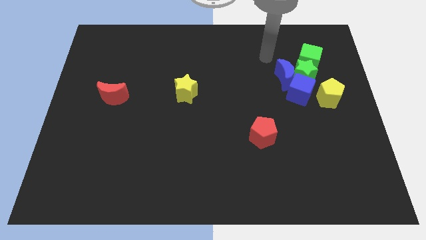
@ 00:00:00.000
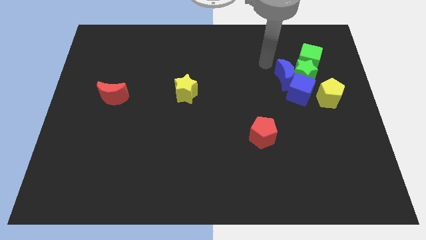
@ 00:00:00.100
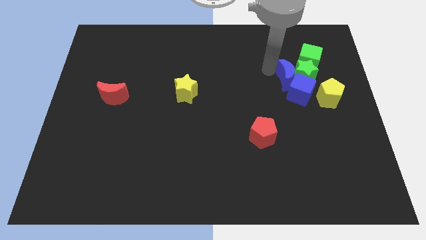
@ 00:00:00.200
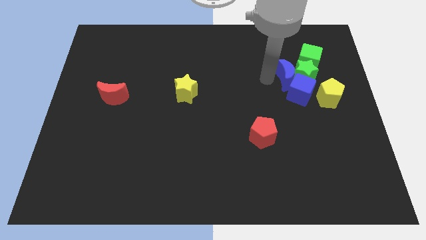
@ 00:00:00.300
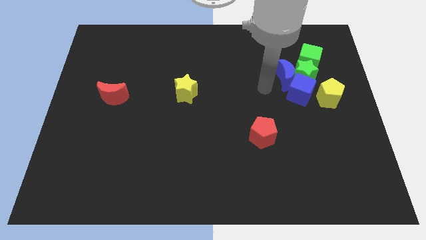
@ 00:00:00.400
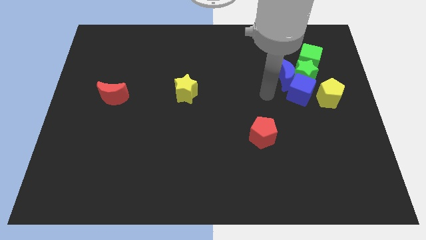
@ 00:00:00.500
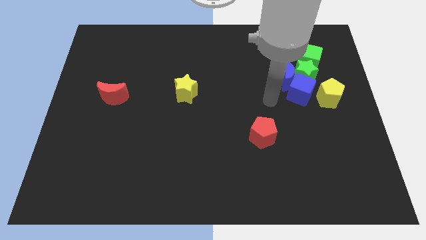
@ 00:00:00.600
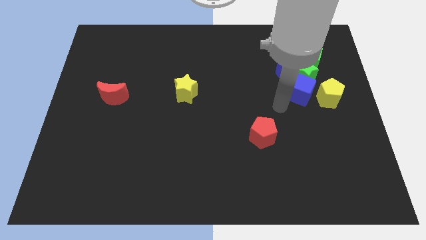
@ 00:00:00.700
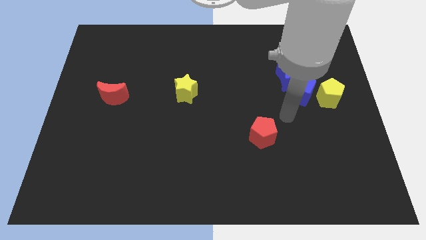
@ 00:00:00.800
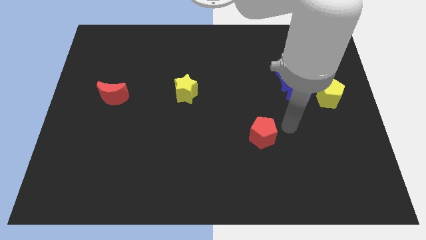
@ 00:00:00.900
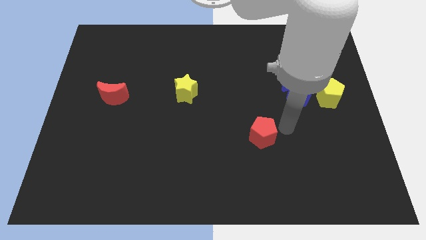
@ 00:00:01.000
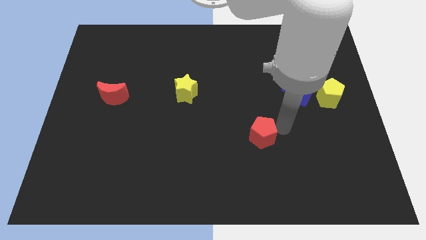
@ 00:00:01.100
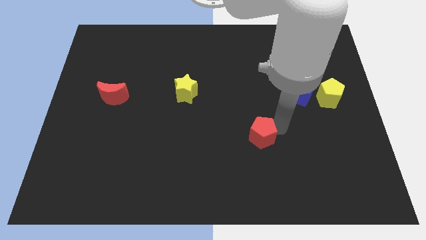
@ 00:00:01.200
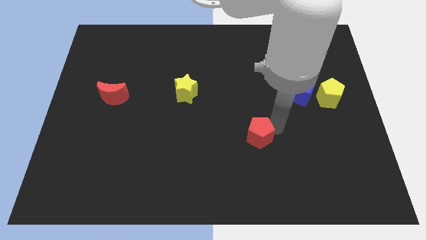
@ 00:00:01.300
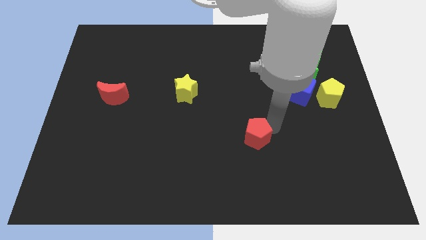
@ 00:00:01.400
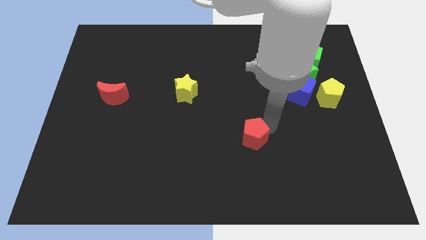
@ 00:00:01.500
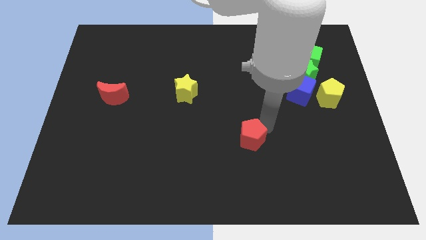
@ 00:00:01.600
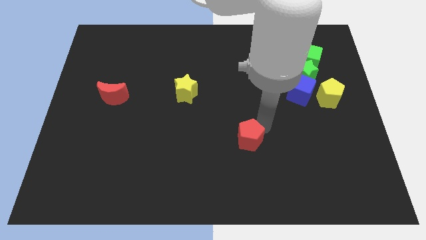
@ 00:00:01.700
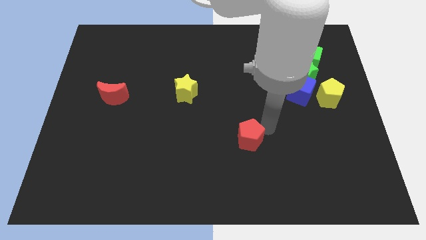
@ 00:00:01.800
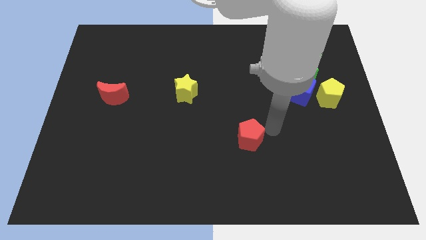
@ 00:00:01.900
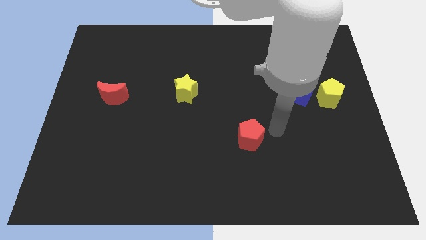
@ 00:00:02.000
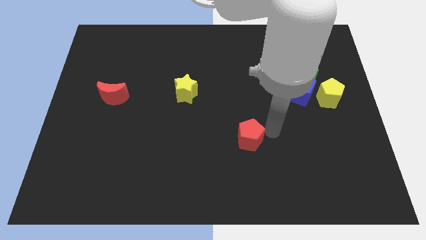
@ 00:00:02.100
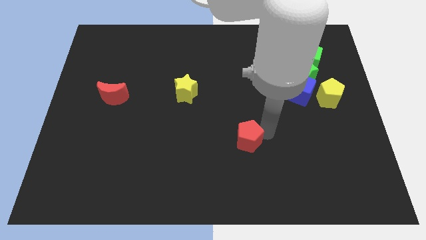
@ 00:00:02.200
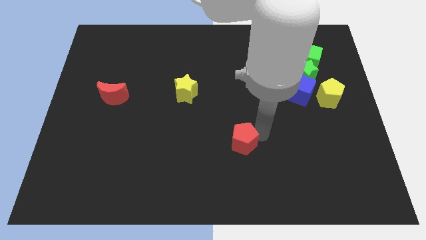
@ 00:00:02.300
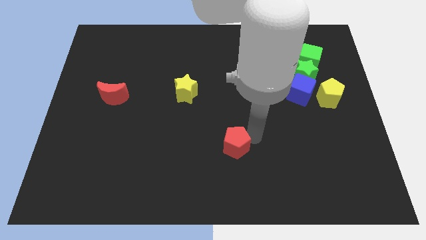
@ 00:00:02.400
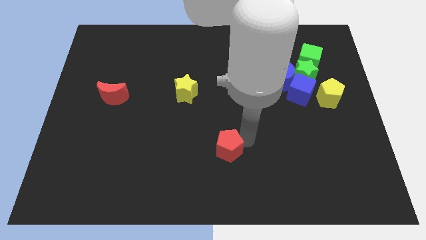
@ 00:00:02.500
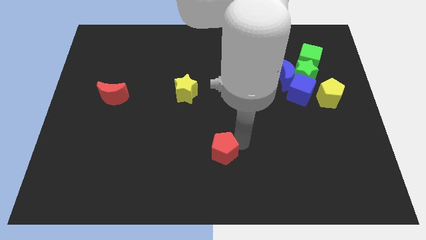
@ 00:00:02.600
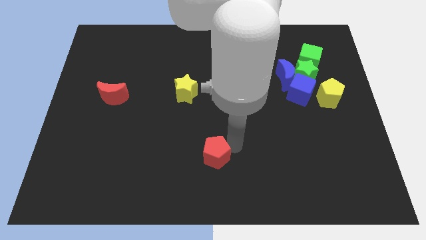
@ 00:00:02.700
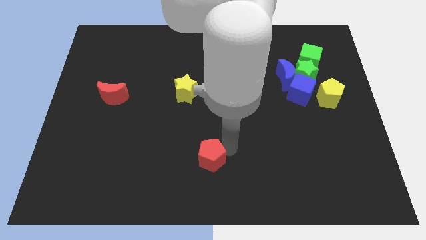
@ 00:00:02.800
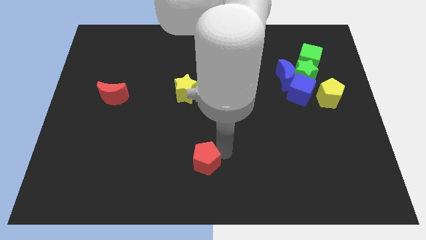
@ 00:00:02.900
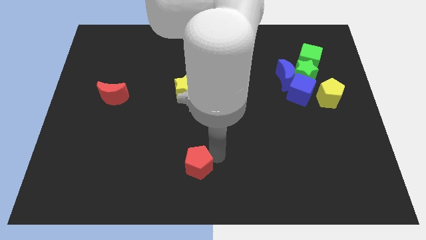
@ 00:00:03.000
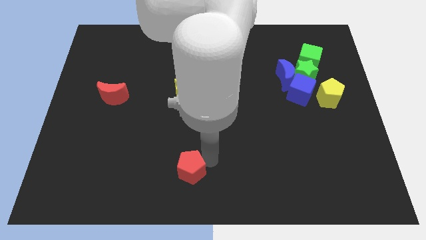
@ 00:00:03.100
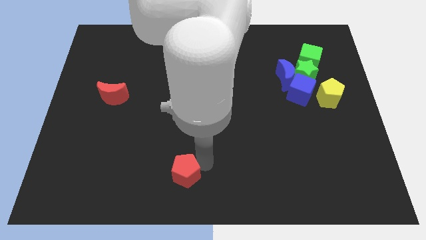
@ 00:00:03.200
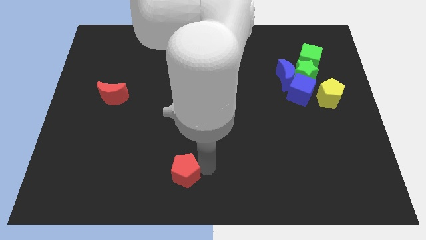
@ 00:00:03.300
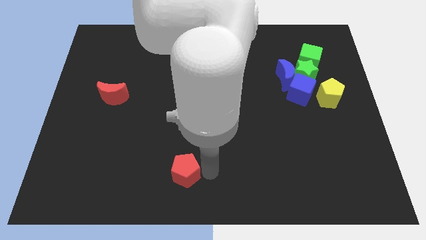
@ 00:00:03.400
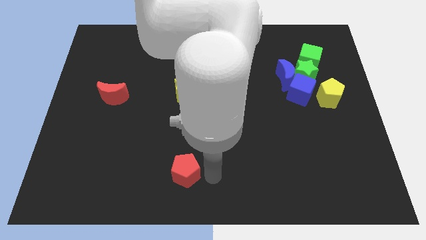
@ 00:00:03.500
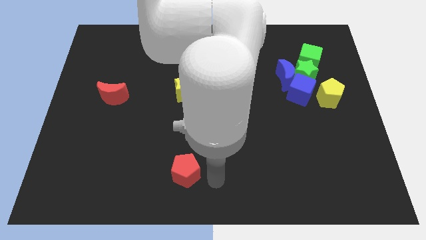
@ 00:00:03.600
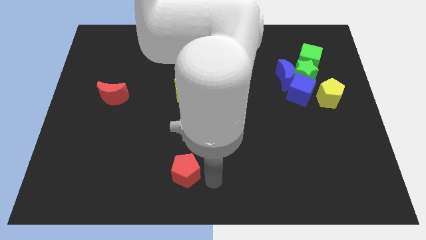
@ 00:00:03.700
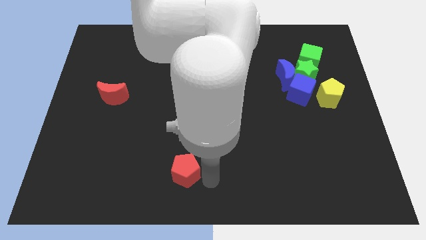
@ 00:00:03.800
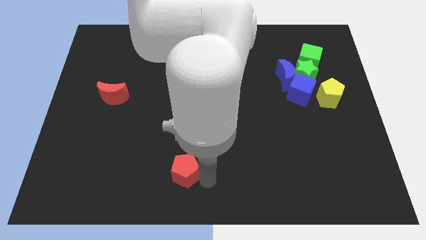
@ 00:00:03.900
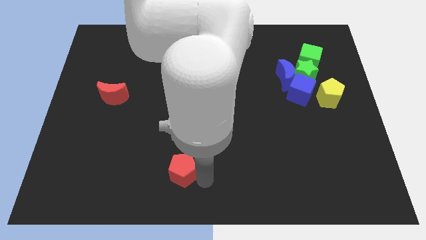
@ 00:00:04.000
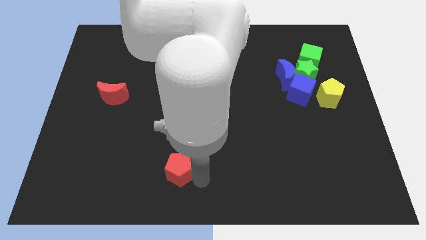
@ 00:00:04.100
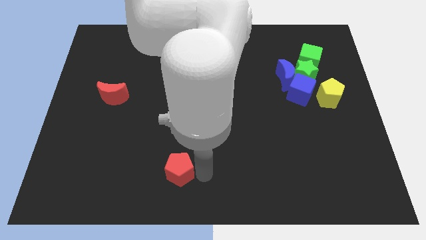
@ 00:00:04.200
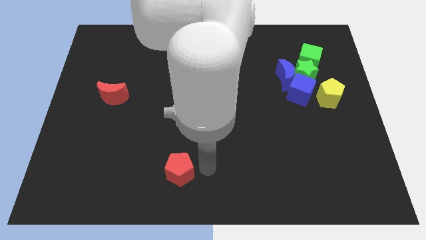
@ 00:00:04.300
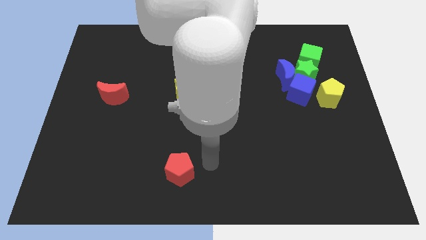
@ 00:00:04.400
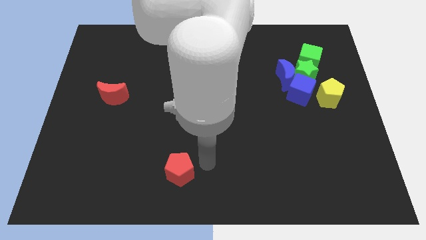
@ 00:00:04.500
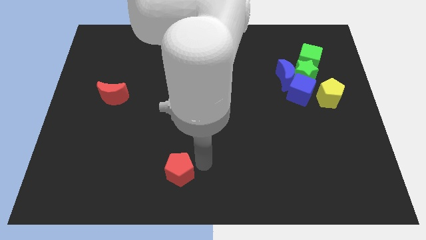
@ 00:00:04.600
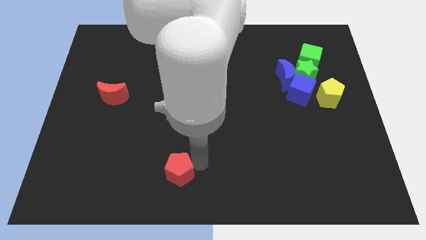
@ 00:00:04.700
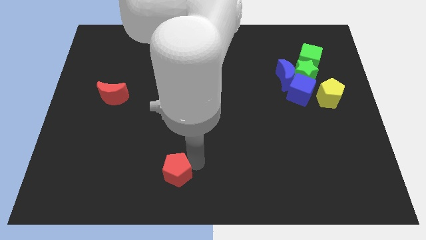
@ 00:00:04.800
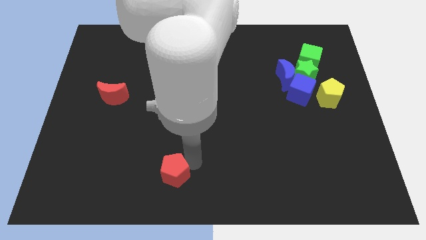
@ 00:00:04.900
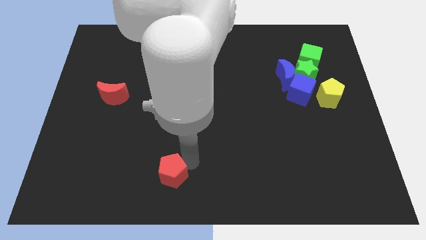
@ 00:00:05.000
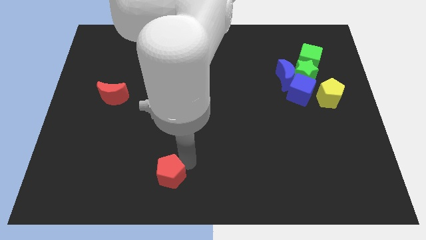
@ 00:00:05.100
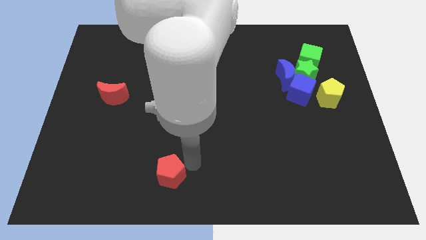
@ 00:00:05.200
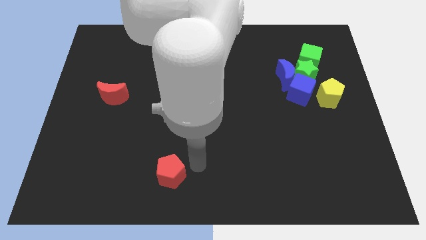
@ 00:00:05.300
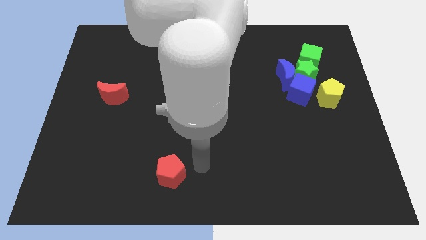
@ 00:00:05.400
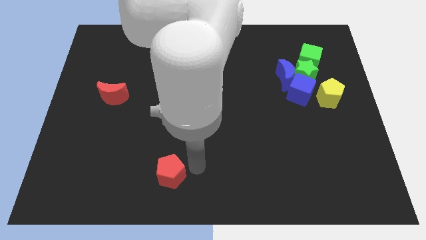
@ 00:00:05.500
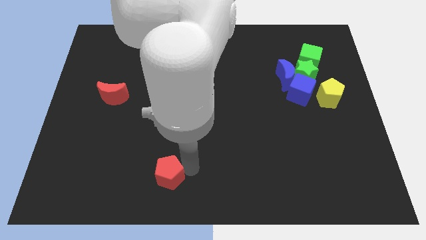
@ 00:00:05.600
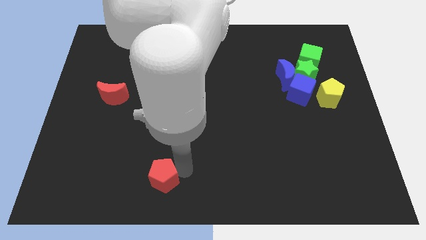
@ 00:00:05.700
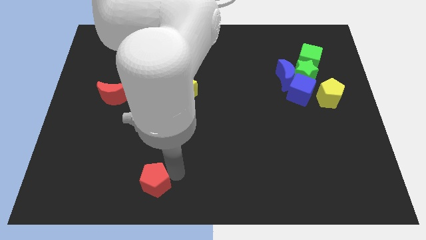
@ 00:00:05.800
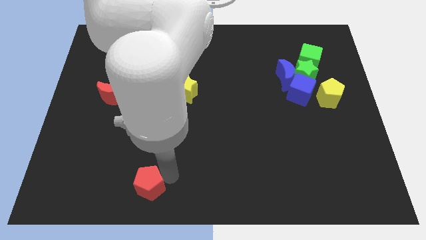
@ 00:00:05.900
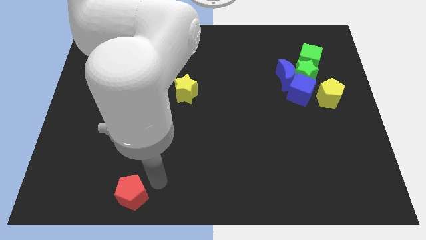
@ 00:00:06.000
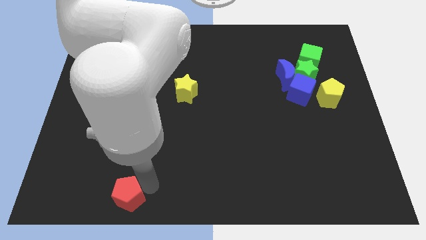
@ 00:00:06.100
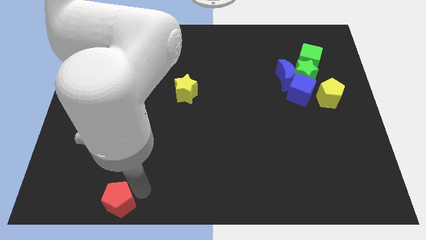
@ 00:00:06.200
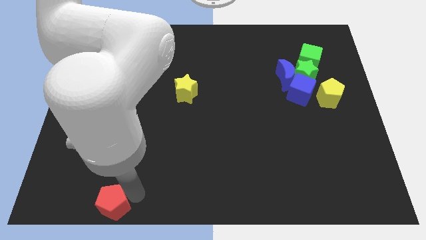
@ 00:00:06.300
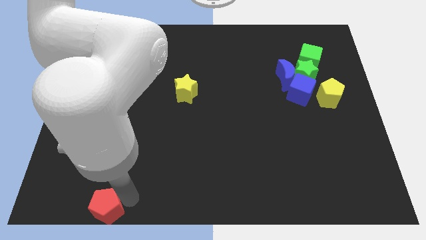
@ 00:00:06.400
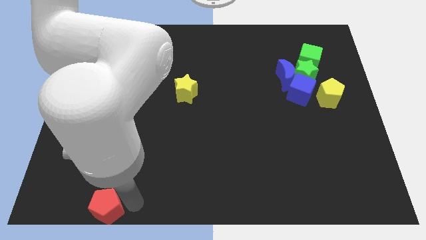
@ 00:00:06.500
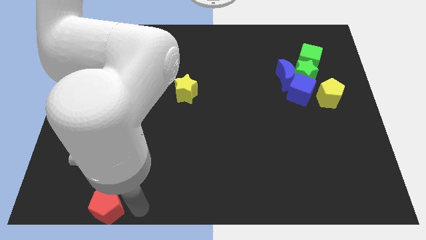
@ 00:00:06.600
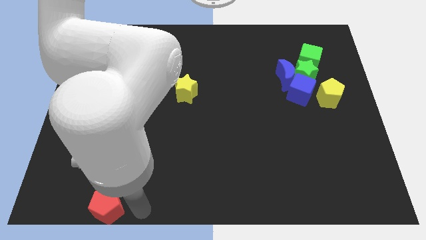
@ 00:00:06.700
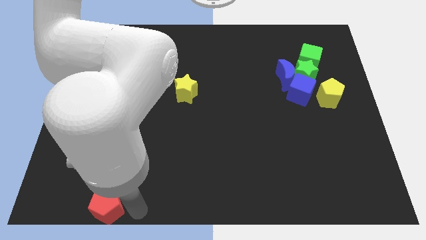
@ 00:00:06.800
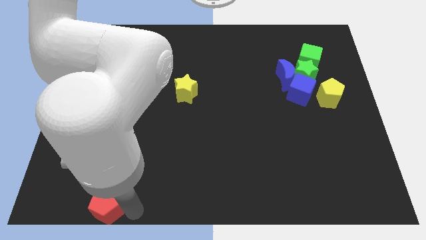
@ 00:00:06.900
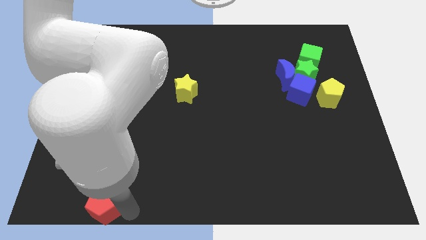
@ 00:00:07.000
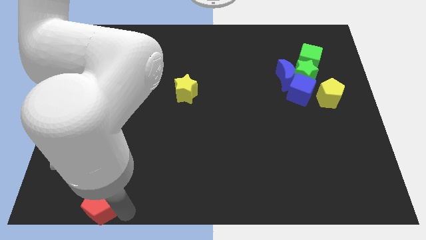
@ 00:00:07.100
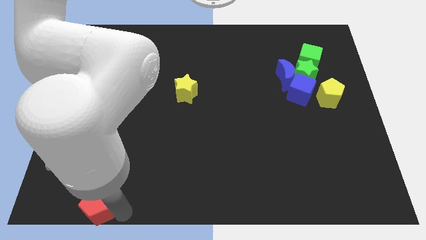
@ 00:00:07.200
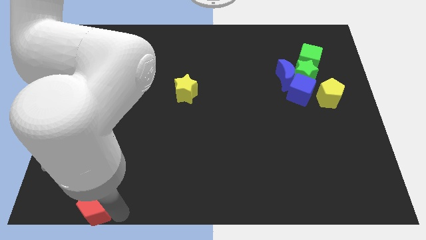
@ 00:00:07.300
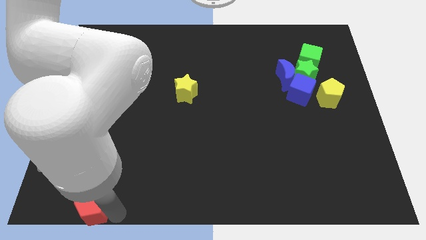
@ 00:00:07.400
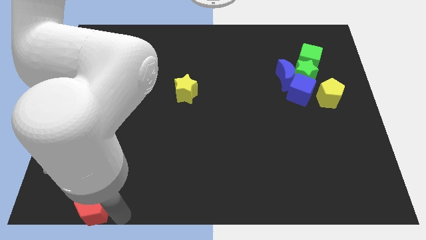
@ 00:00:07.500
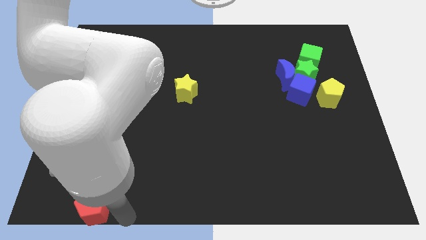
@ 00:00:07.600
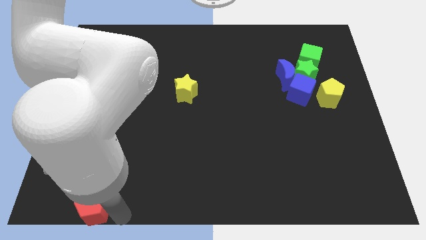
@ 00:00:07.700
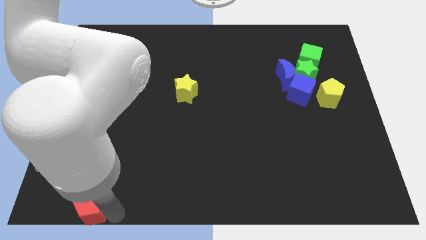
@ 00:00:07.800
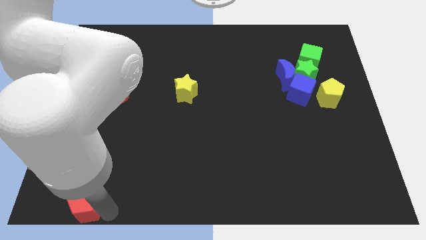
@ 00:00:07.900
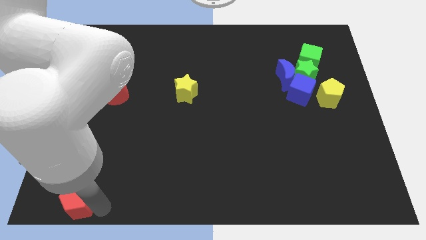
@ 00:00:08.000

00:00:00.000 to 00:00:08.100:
put the red pentagon to the lower left corner
